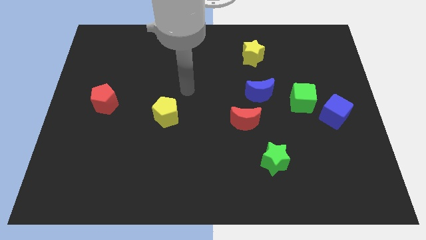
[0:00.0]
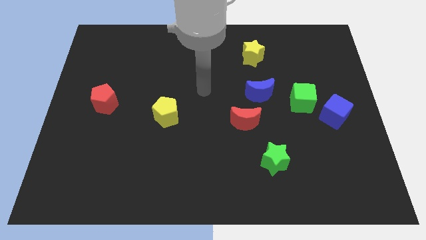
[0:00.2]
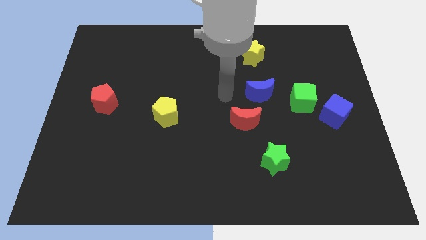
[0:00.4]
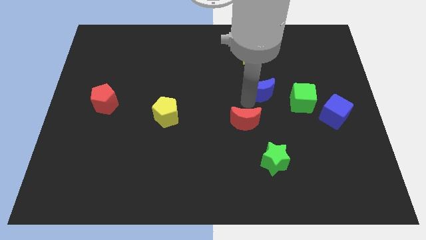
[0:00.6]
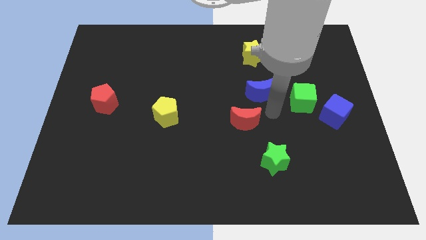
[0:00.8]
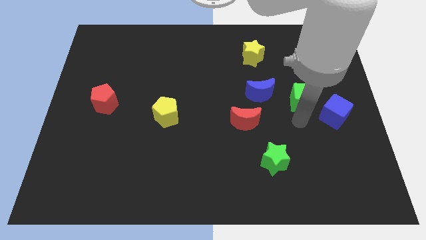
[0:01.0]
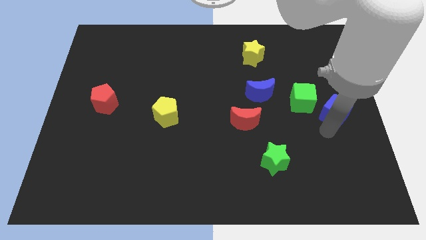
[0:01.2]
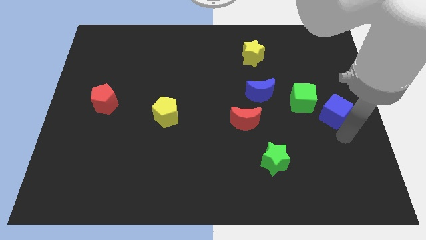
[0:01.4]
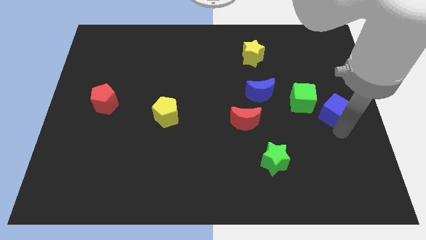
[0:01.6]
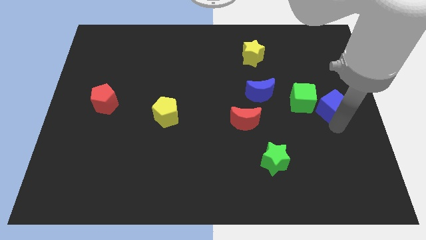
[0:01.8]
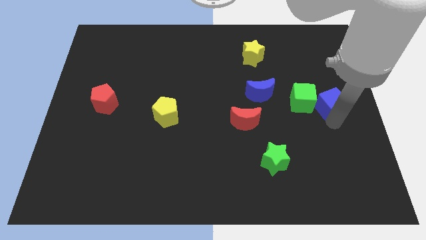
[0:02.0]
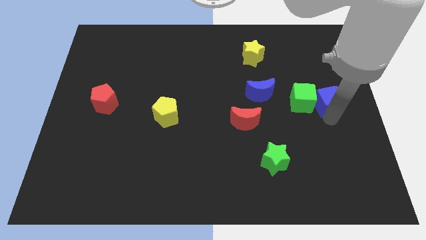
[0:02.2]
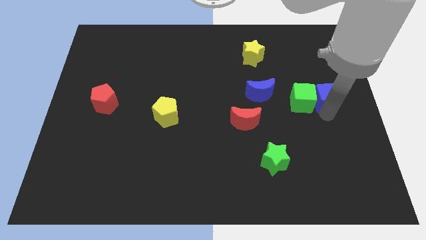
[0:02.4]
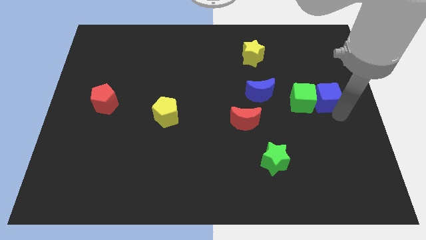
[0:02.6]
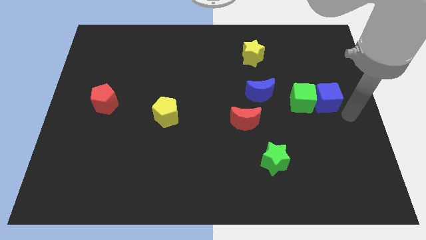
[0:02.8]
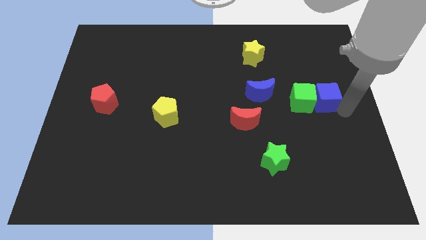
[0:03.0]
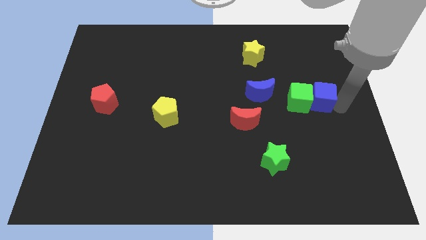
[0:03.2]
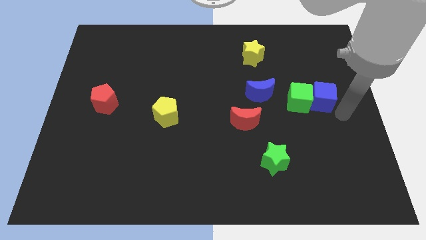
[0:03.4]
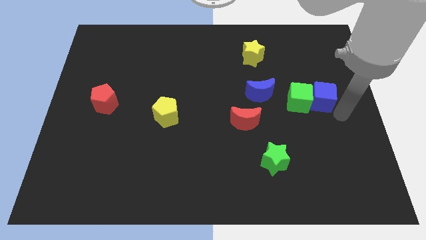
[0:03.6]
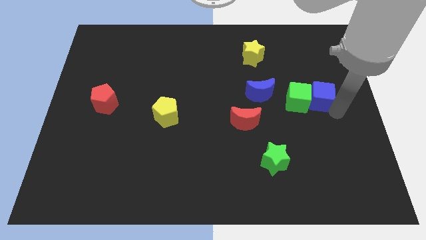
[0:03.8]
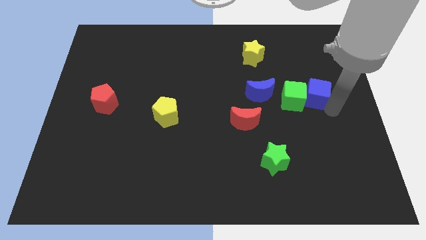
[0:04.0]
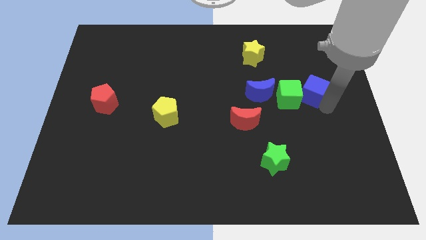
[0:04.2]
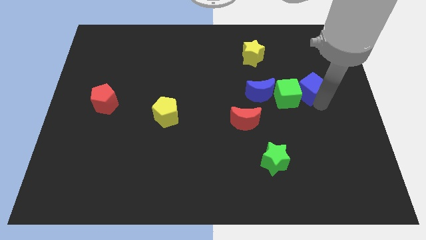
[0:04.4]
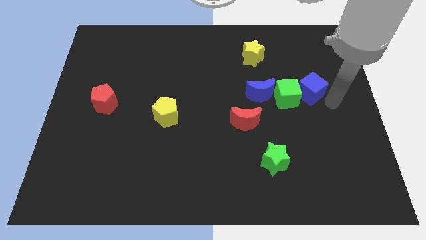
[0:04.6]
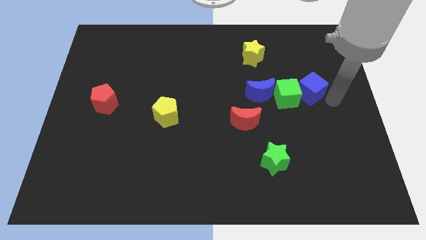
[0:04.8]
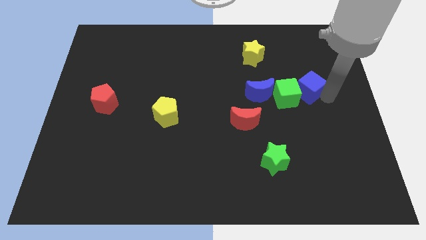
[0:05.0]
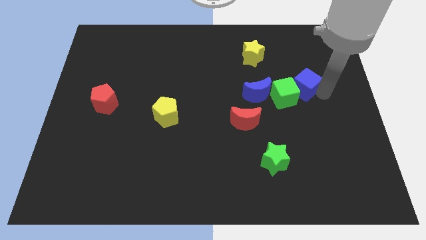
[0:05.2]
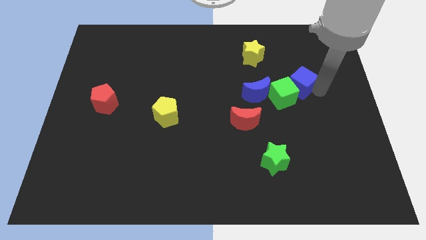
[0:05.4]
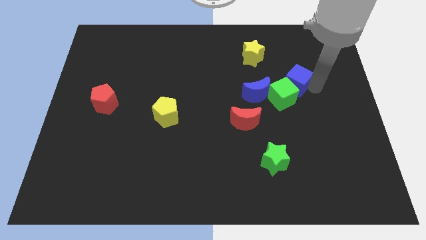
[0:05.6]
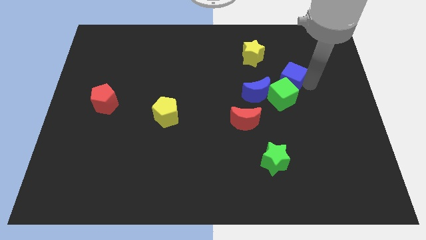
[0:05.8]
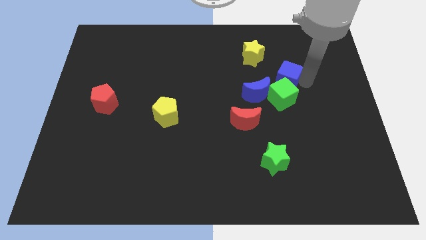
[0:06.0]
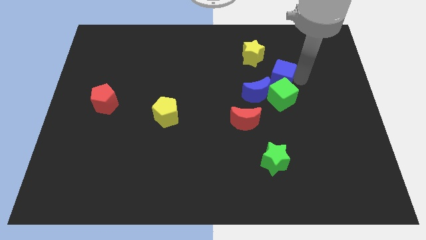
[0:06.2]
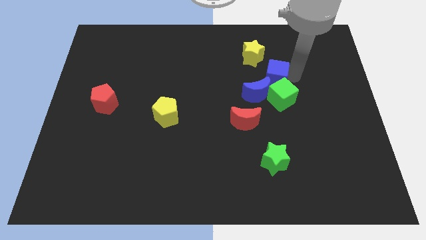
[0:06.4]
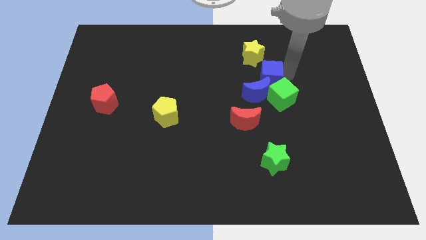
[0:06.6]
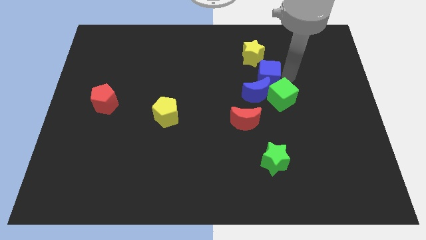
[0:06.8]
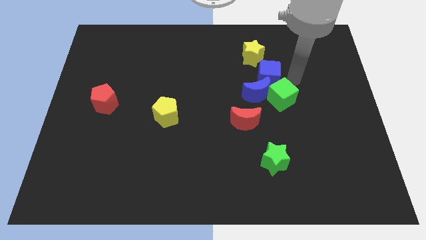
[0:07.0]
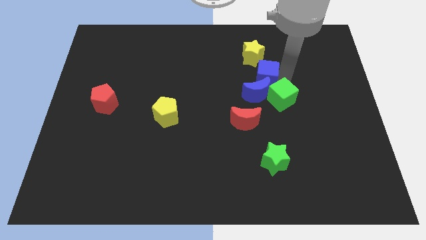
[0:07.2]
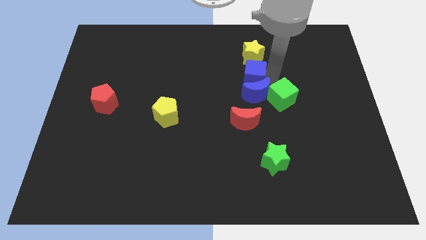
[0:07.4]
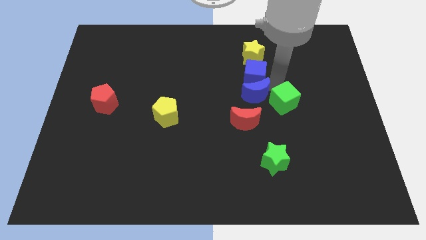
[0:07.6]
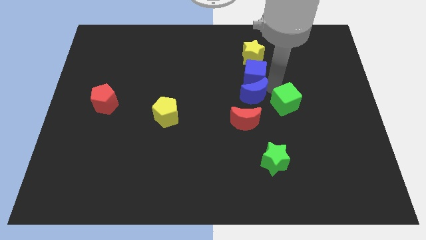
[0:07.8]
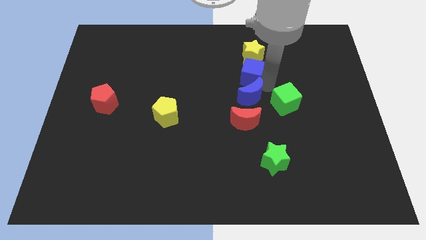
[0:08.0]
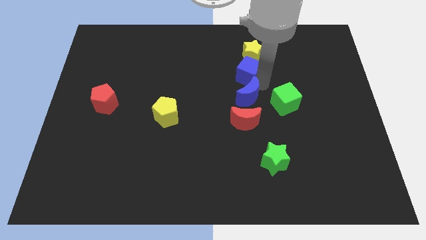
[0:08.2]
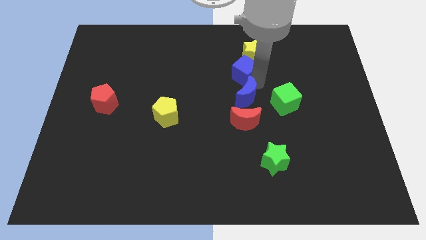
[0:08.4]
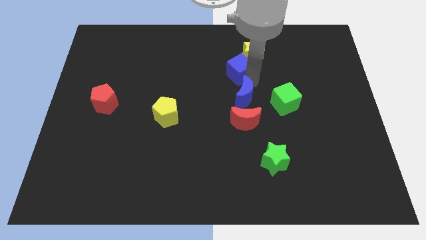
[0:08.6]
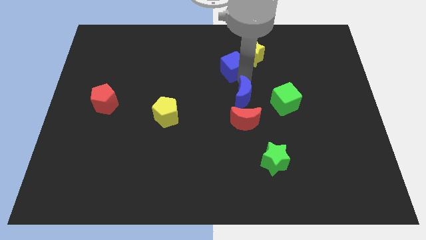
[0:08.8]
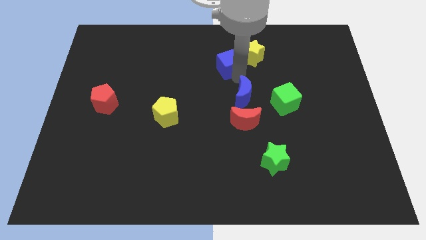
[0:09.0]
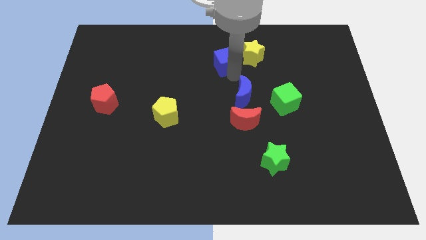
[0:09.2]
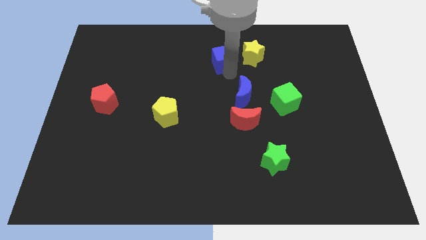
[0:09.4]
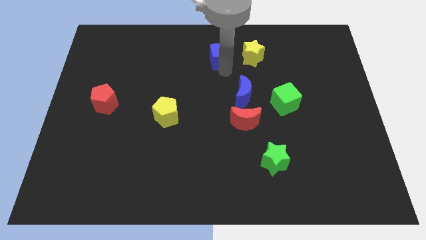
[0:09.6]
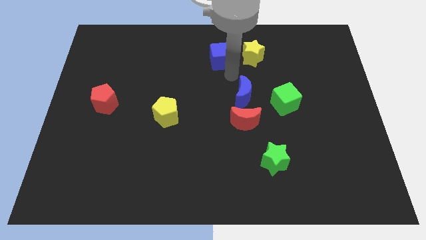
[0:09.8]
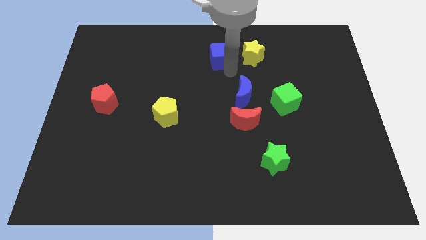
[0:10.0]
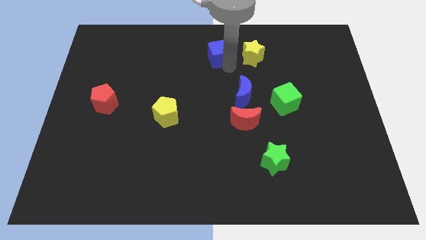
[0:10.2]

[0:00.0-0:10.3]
push the blue cube to the top side

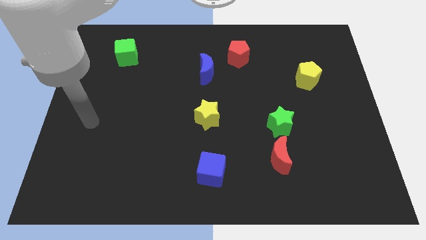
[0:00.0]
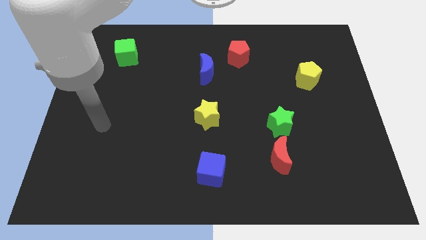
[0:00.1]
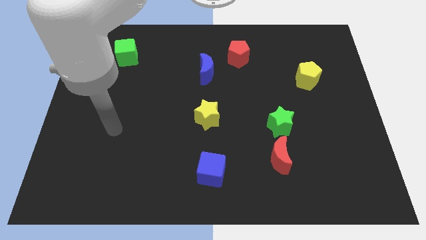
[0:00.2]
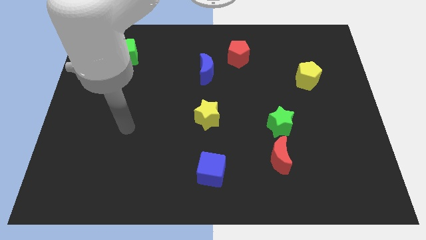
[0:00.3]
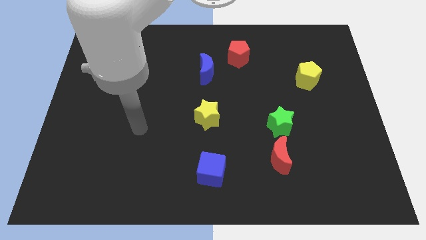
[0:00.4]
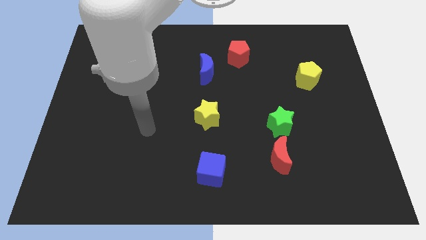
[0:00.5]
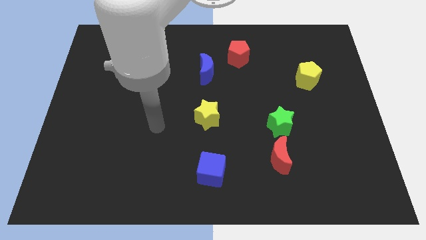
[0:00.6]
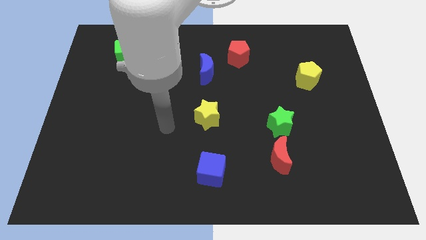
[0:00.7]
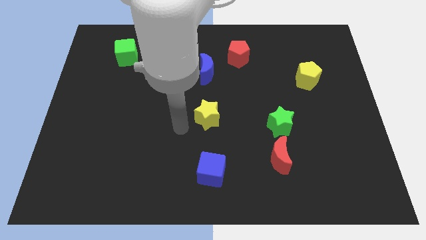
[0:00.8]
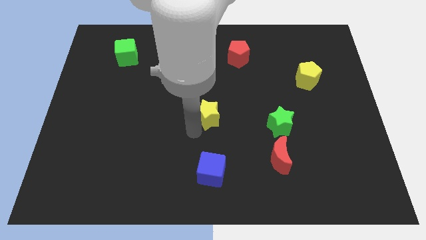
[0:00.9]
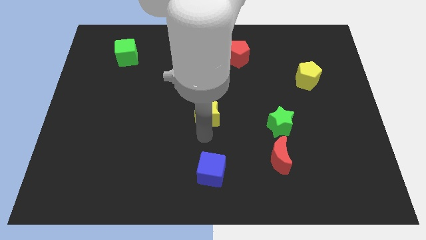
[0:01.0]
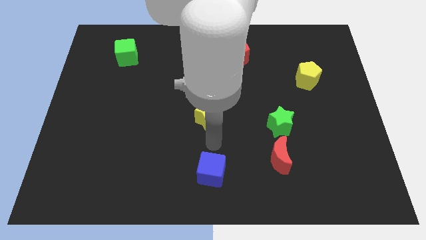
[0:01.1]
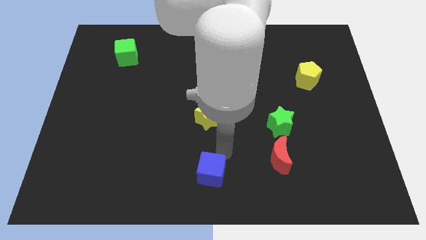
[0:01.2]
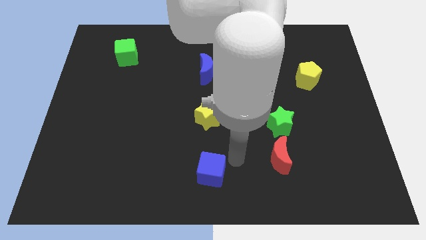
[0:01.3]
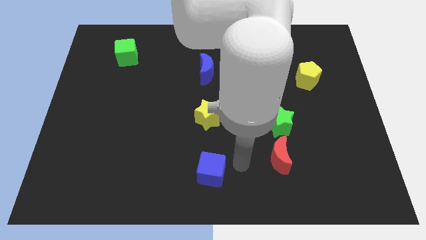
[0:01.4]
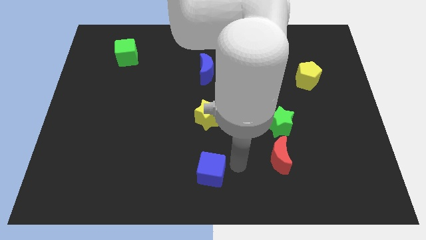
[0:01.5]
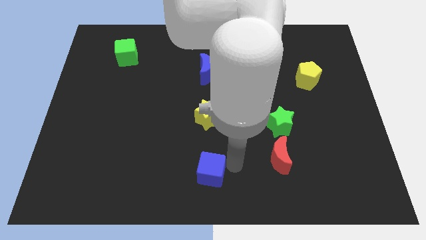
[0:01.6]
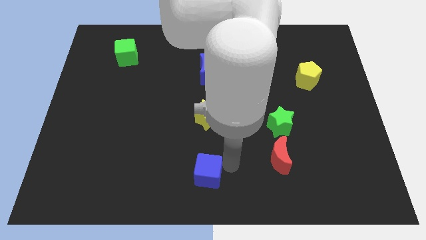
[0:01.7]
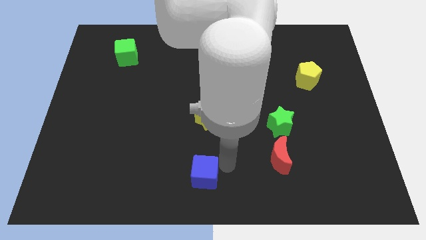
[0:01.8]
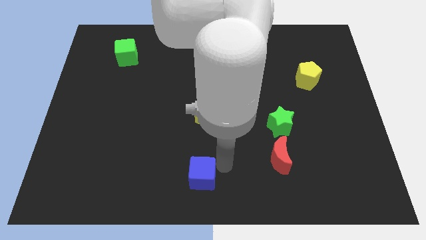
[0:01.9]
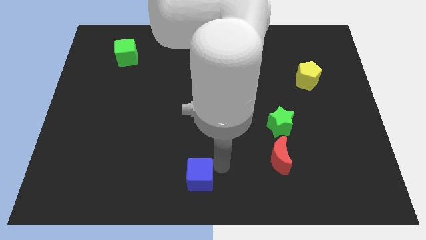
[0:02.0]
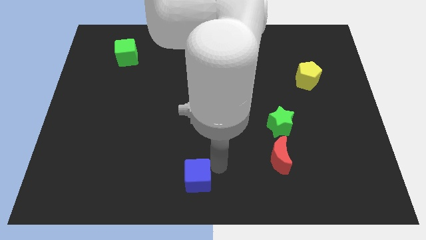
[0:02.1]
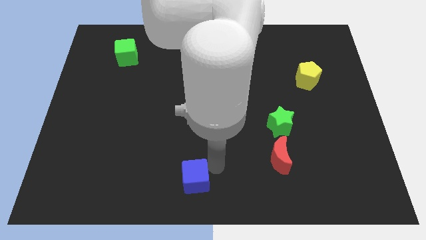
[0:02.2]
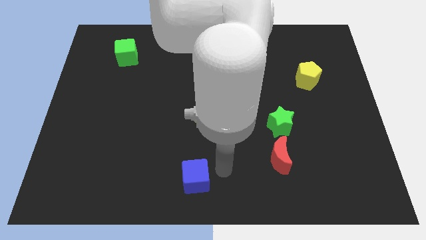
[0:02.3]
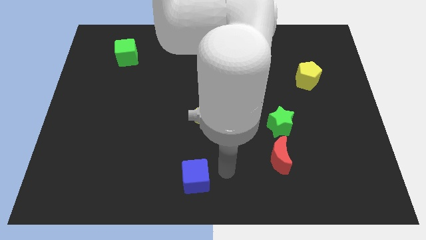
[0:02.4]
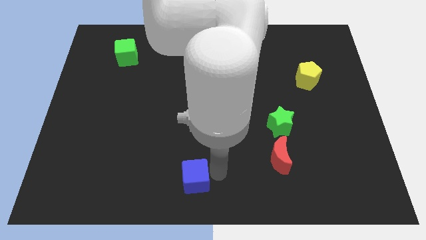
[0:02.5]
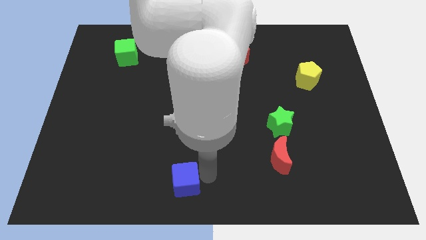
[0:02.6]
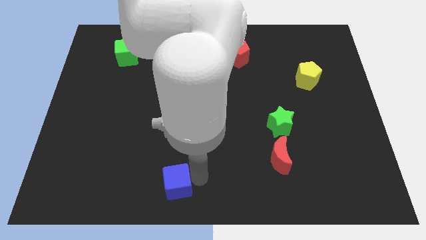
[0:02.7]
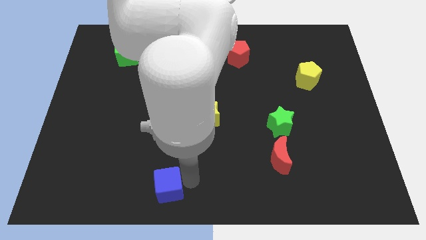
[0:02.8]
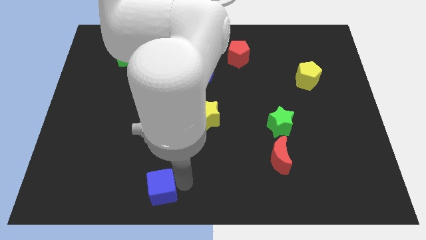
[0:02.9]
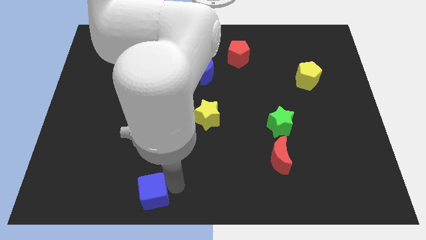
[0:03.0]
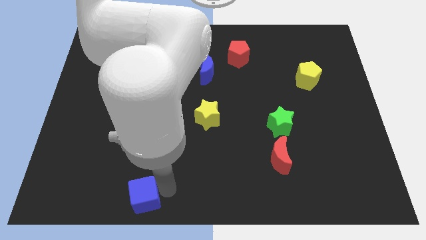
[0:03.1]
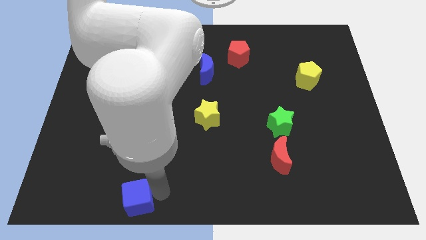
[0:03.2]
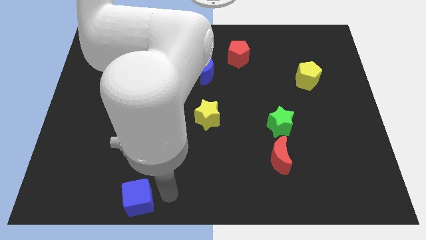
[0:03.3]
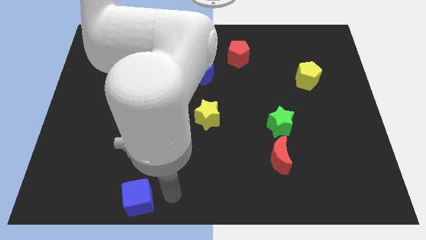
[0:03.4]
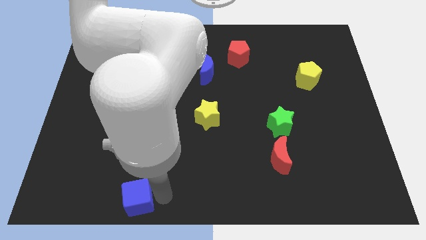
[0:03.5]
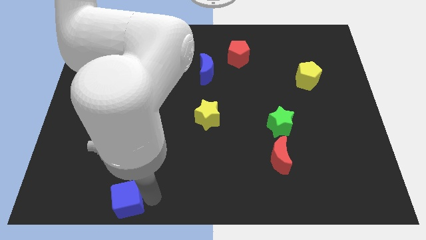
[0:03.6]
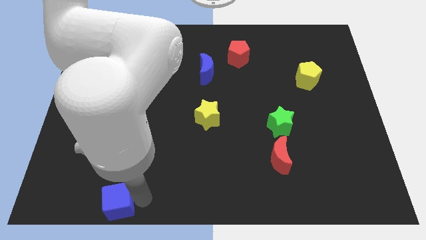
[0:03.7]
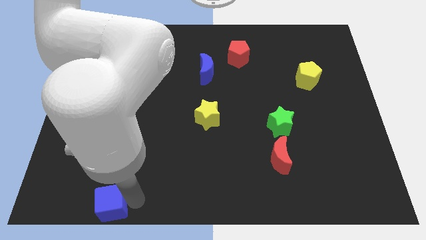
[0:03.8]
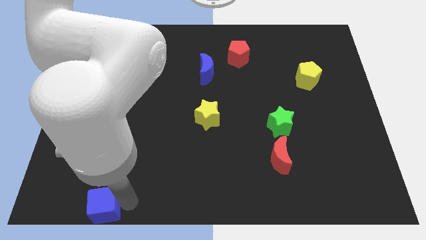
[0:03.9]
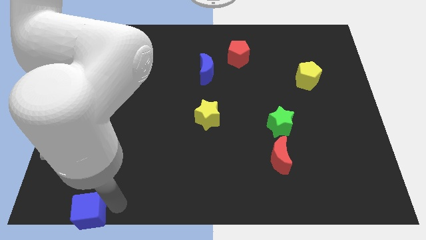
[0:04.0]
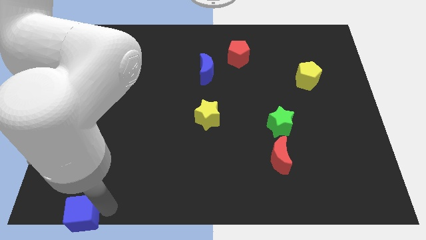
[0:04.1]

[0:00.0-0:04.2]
put the blue cube to the bottom left of the board
